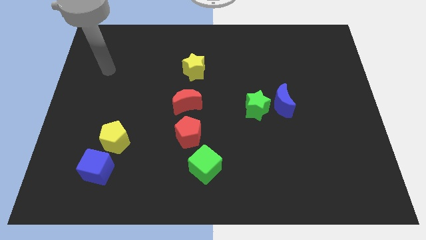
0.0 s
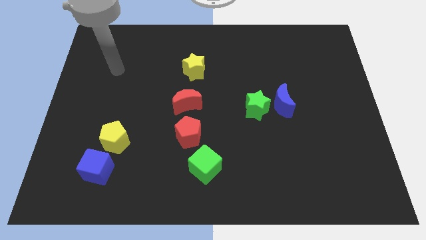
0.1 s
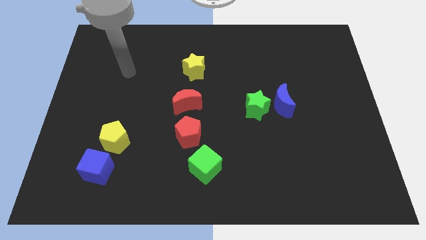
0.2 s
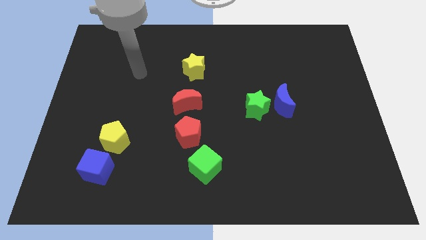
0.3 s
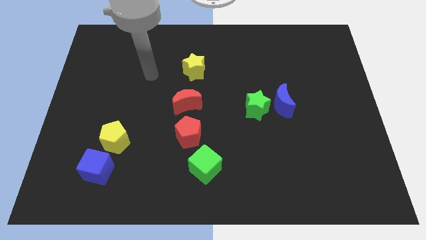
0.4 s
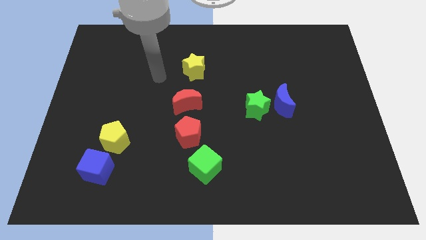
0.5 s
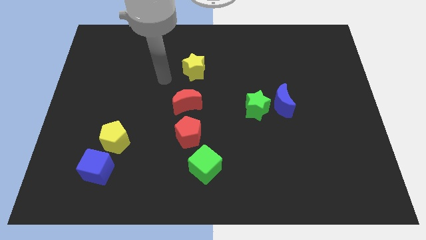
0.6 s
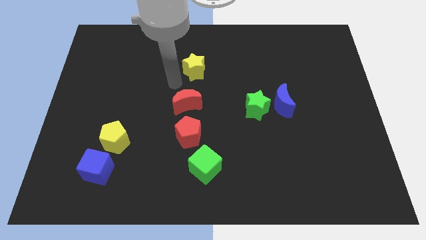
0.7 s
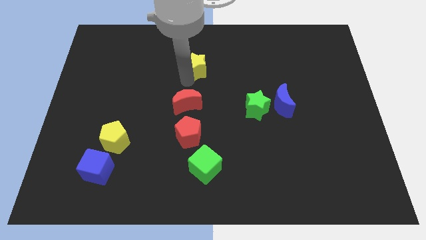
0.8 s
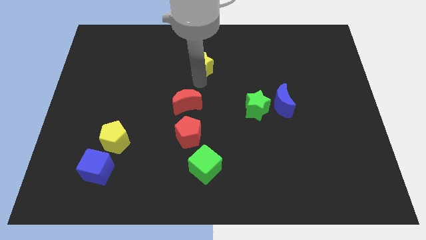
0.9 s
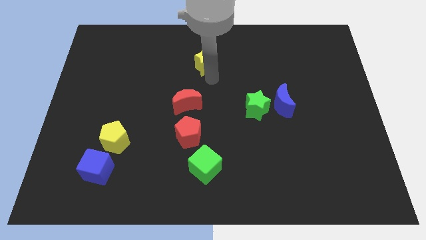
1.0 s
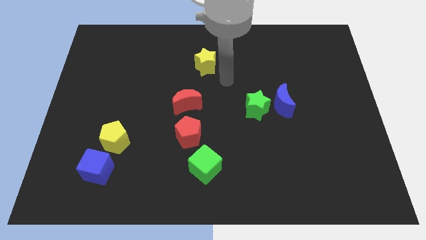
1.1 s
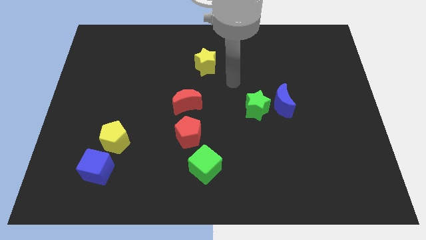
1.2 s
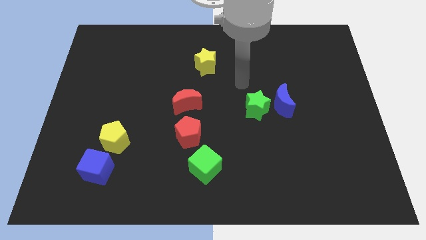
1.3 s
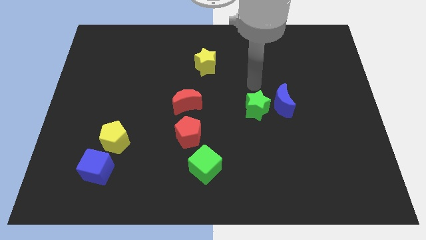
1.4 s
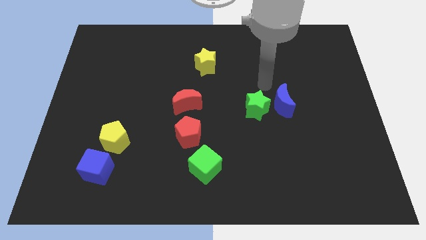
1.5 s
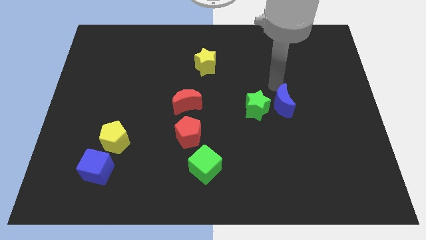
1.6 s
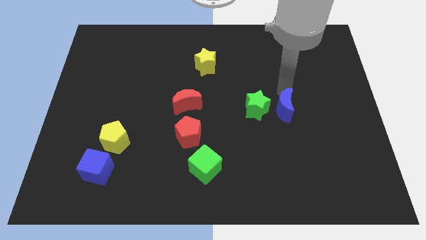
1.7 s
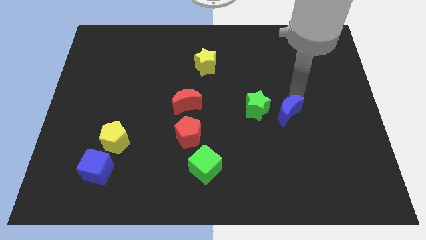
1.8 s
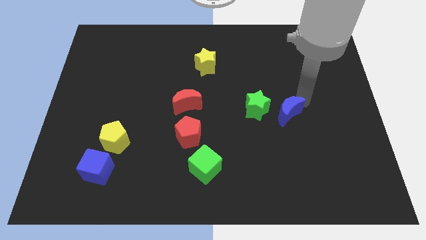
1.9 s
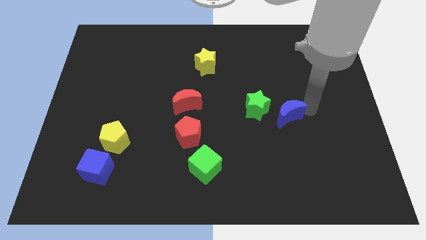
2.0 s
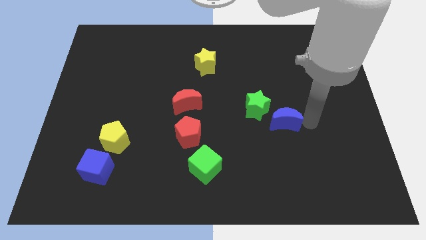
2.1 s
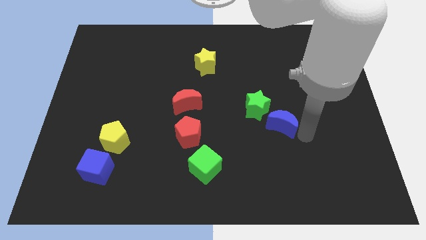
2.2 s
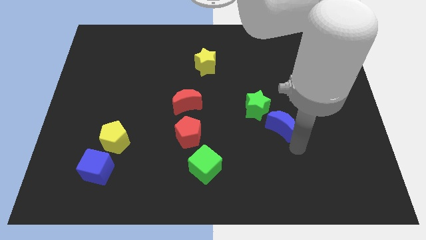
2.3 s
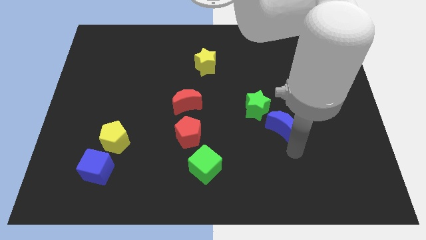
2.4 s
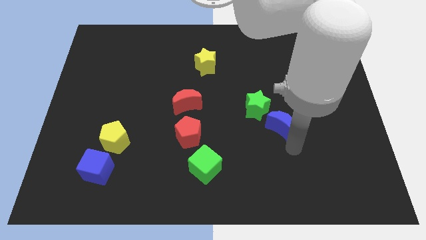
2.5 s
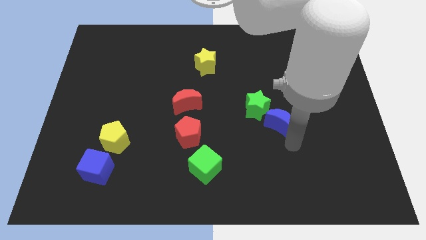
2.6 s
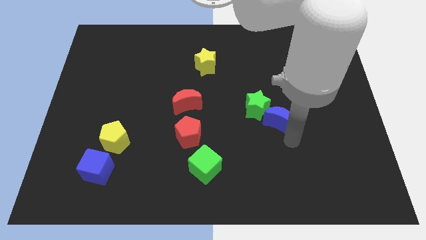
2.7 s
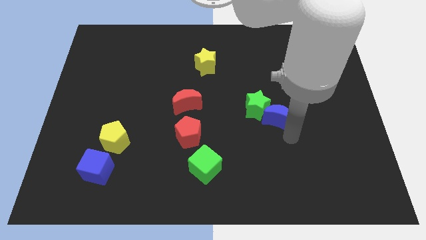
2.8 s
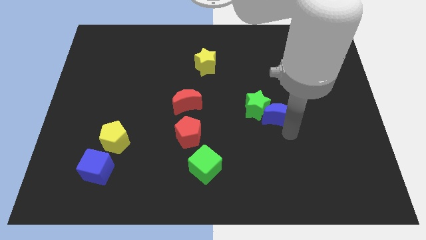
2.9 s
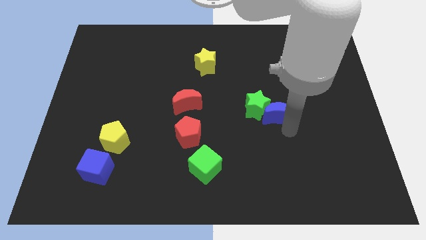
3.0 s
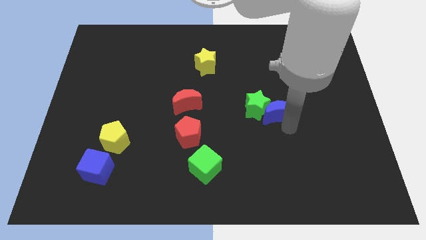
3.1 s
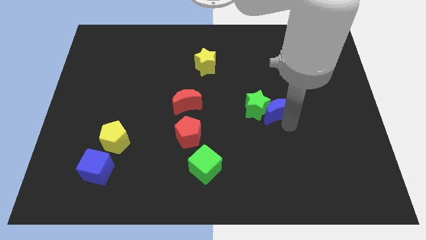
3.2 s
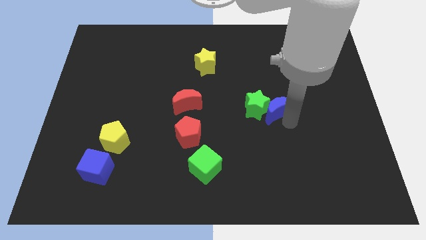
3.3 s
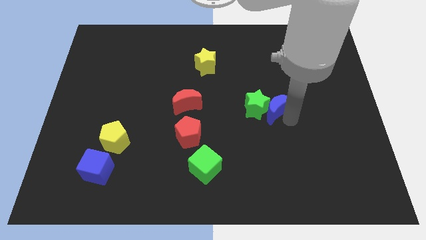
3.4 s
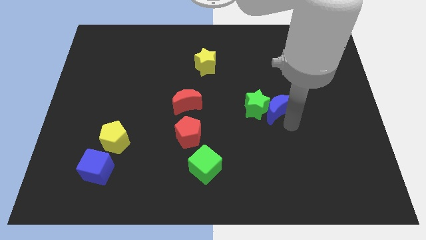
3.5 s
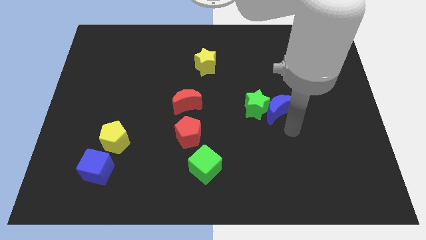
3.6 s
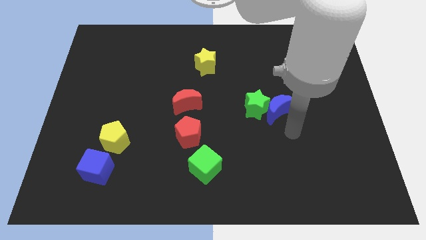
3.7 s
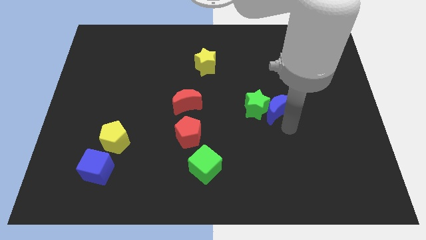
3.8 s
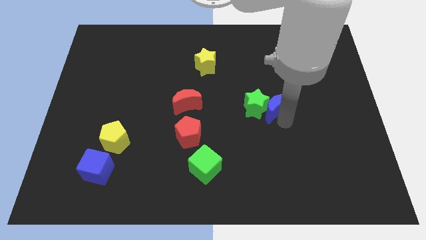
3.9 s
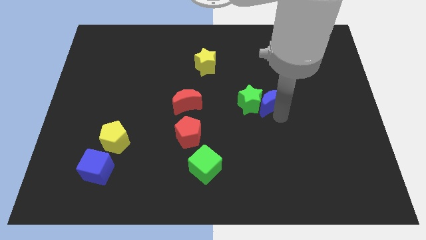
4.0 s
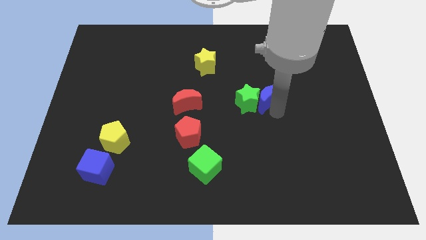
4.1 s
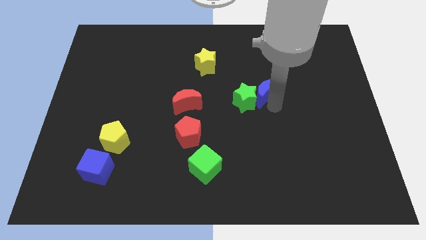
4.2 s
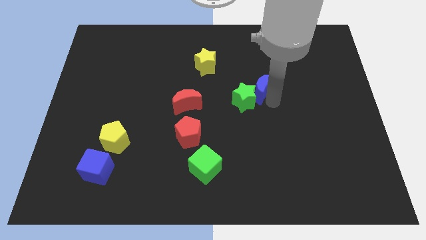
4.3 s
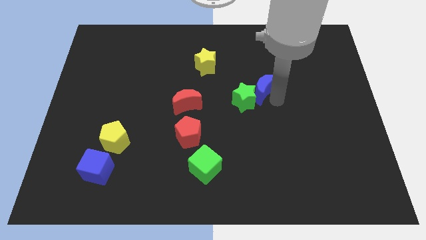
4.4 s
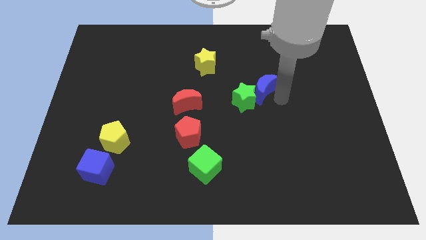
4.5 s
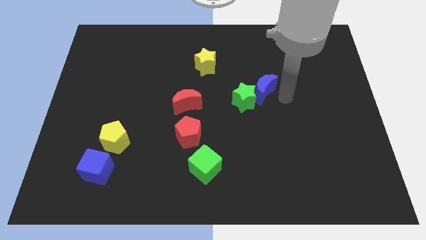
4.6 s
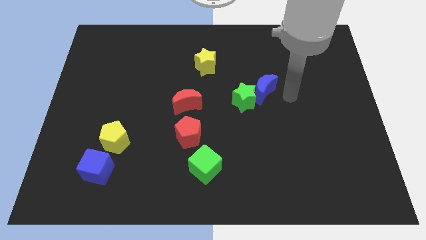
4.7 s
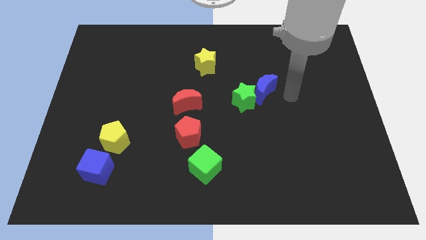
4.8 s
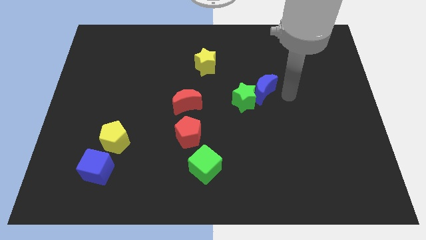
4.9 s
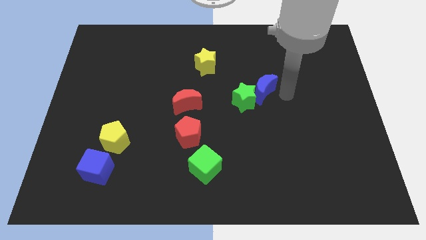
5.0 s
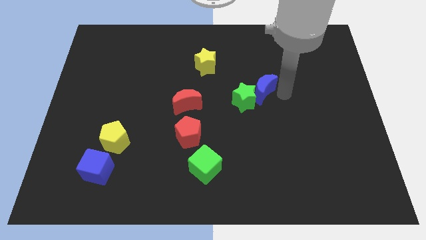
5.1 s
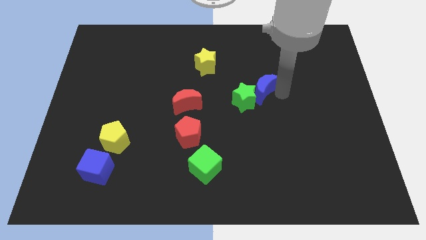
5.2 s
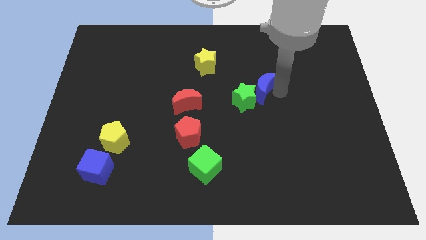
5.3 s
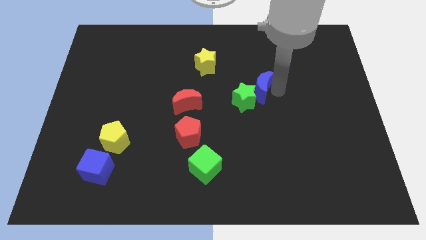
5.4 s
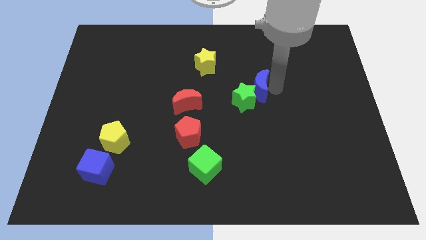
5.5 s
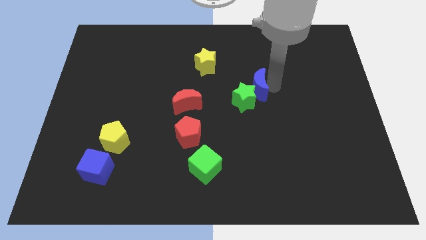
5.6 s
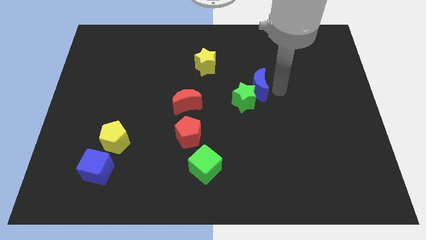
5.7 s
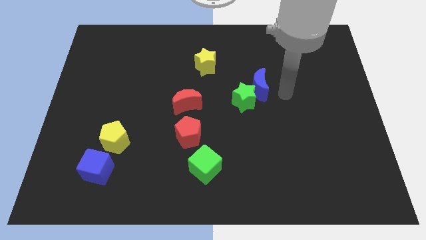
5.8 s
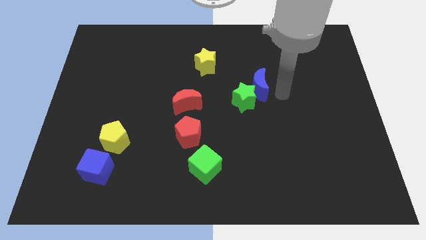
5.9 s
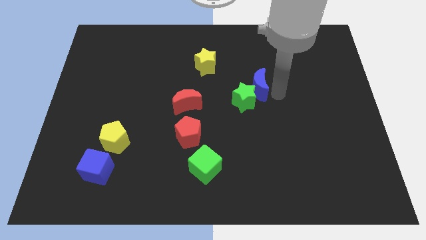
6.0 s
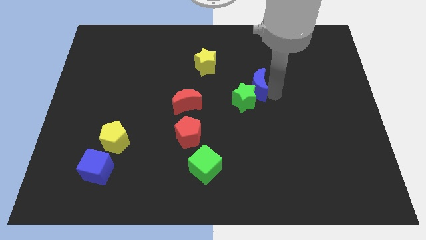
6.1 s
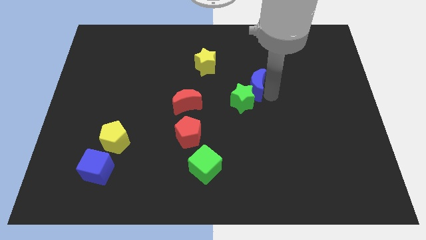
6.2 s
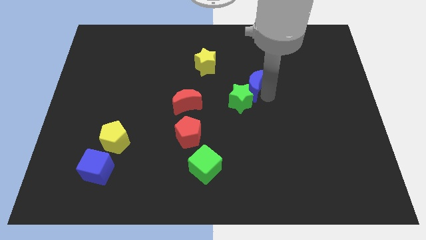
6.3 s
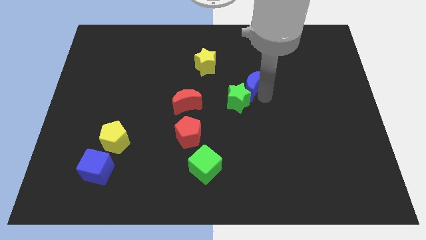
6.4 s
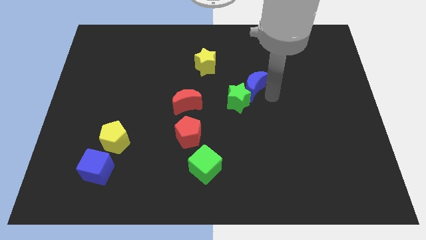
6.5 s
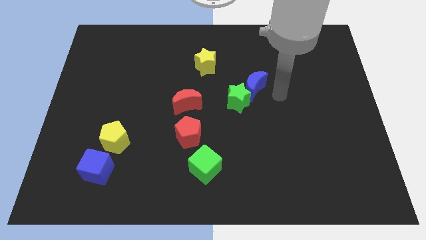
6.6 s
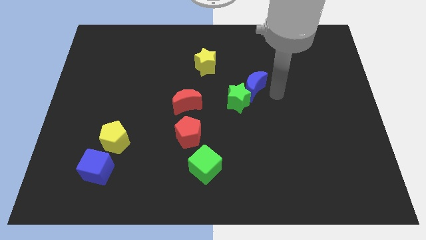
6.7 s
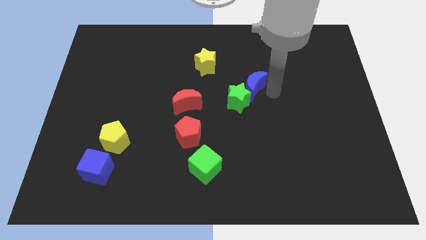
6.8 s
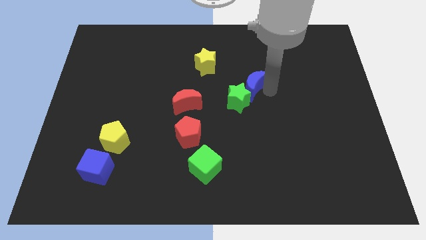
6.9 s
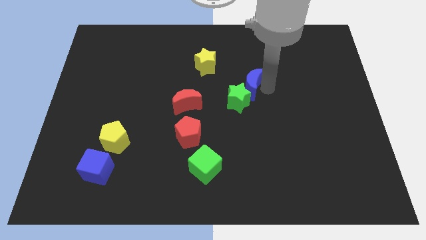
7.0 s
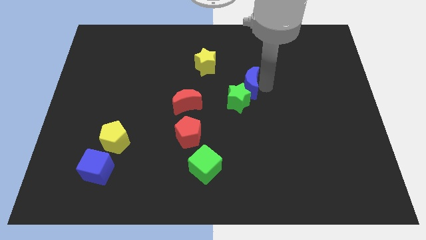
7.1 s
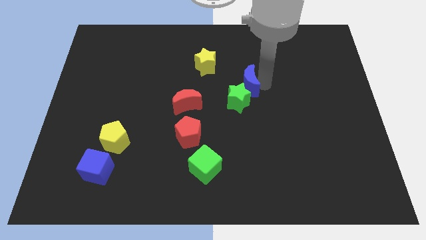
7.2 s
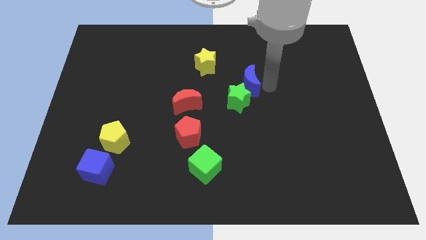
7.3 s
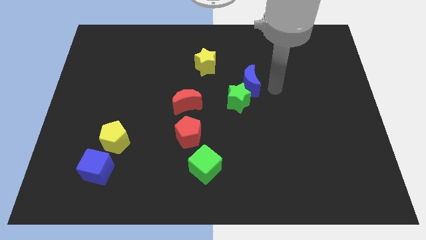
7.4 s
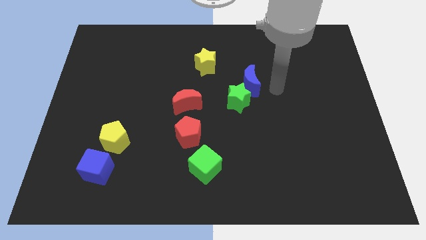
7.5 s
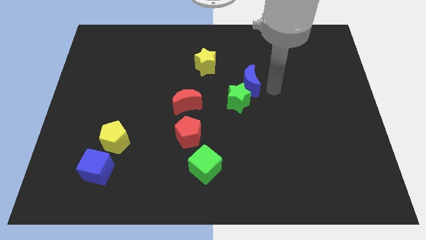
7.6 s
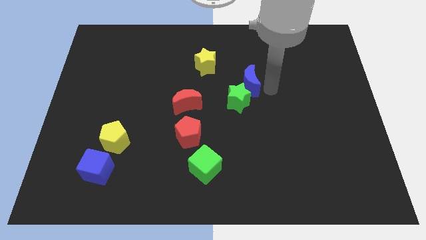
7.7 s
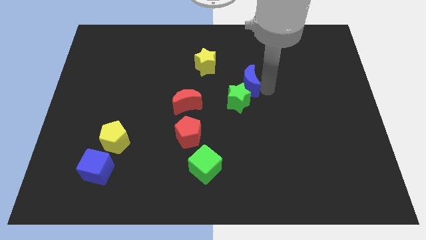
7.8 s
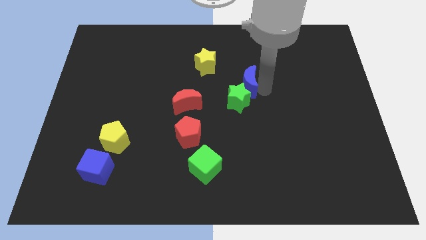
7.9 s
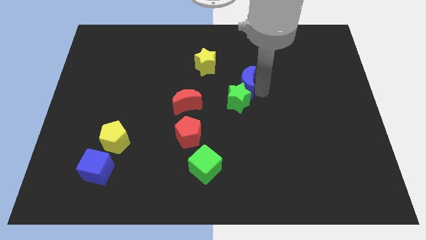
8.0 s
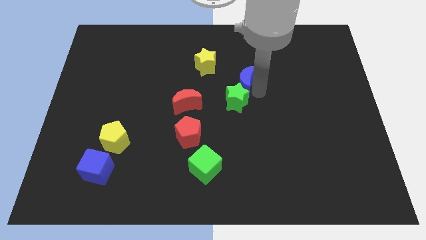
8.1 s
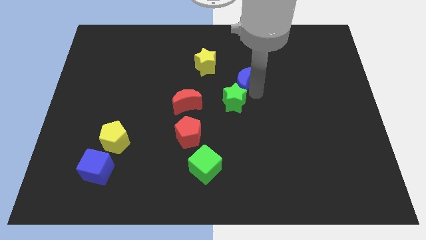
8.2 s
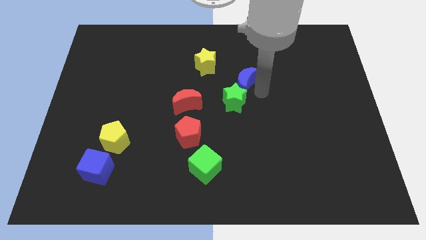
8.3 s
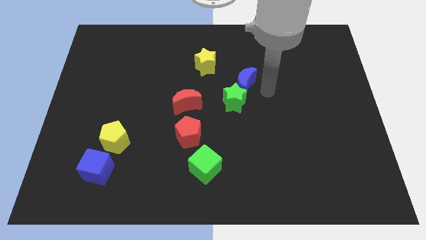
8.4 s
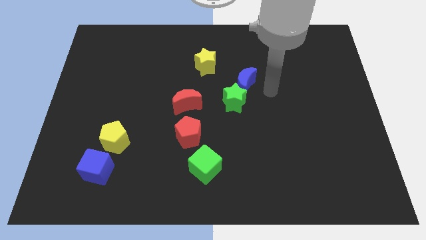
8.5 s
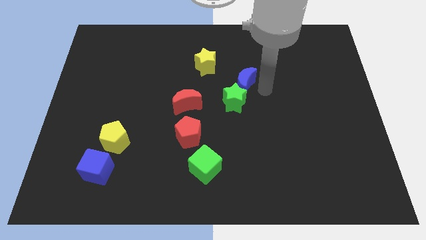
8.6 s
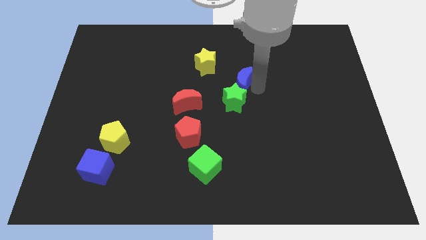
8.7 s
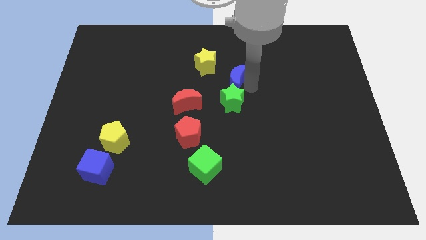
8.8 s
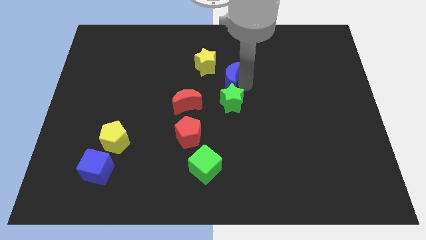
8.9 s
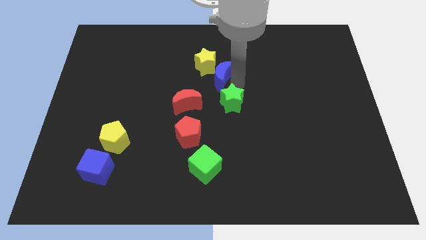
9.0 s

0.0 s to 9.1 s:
slide the blue moon to the yellow star
